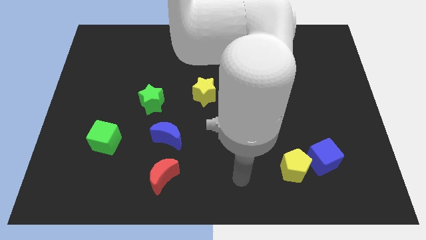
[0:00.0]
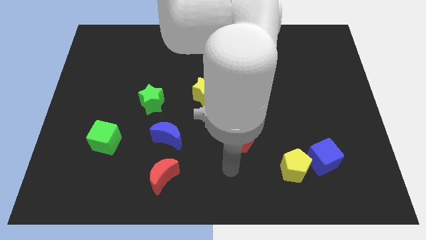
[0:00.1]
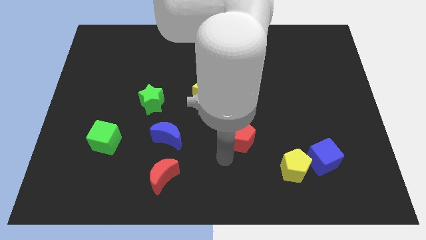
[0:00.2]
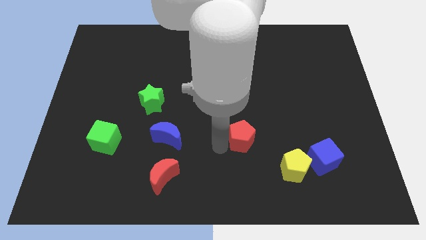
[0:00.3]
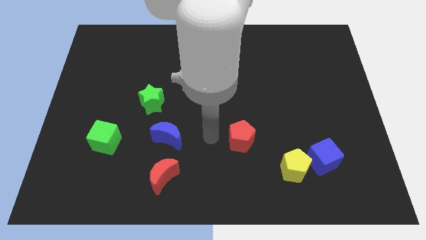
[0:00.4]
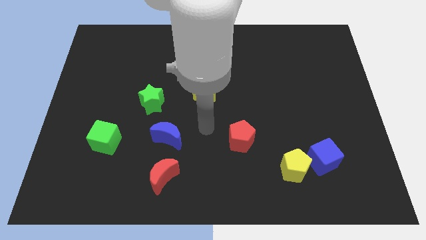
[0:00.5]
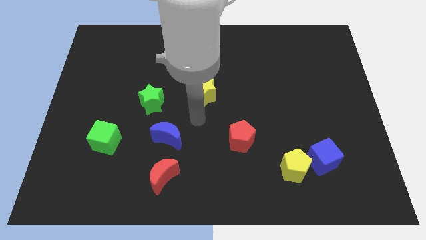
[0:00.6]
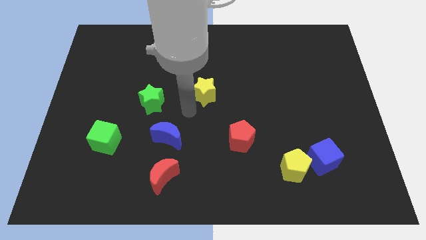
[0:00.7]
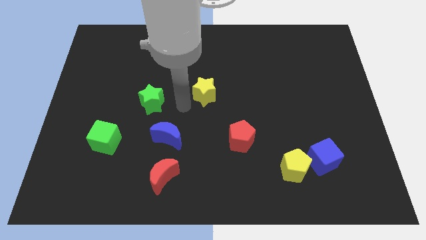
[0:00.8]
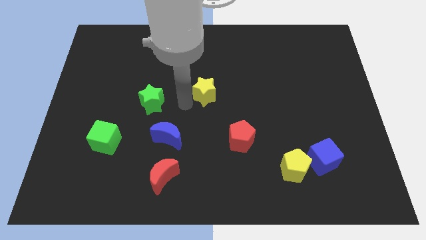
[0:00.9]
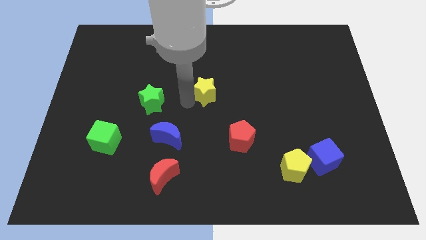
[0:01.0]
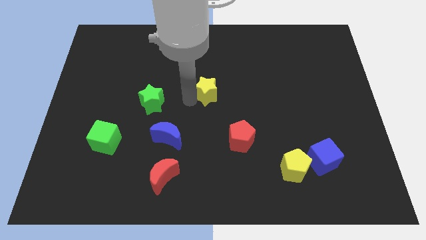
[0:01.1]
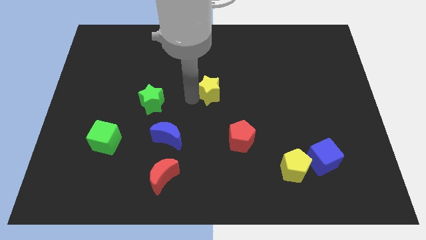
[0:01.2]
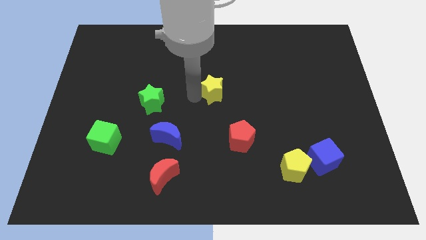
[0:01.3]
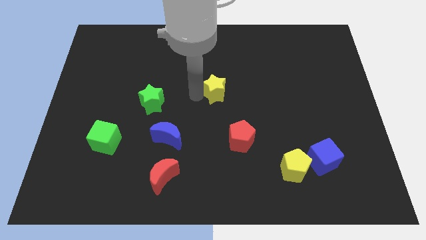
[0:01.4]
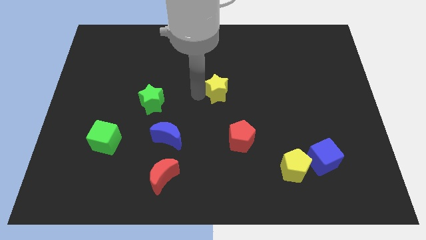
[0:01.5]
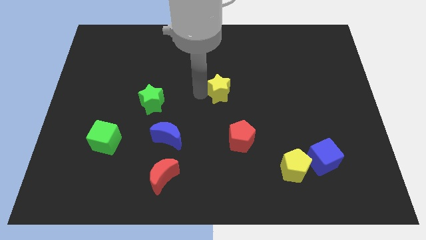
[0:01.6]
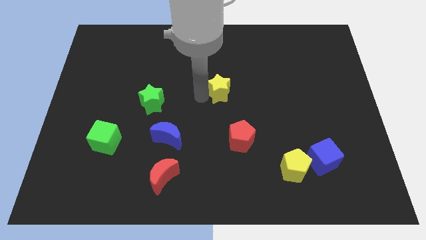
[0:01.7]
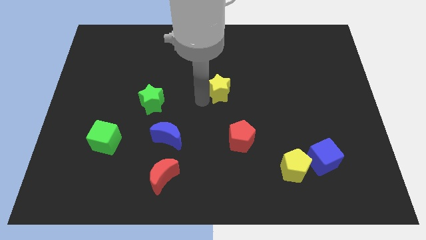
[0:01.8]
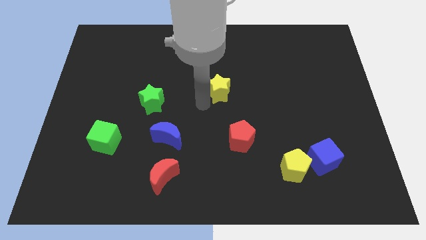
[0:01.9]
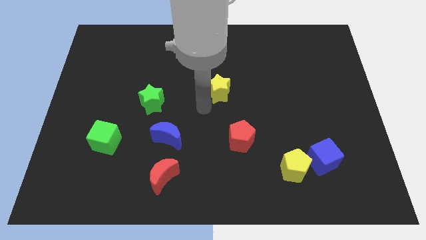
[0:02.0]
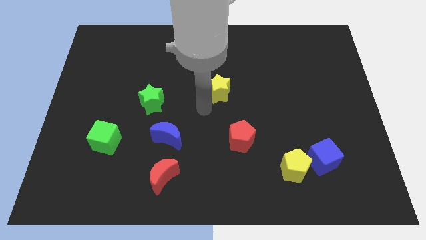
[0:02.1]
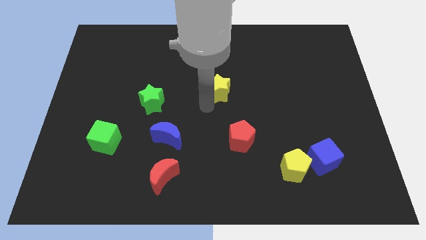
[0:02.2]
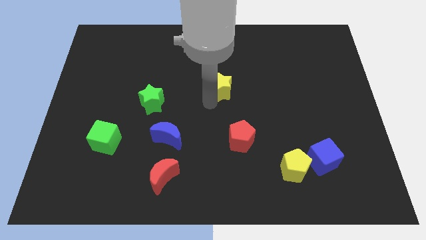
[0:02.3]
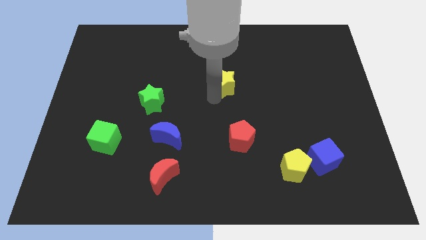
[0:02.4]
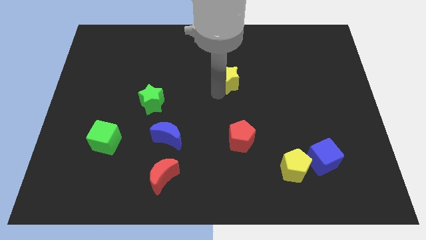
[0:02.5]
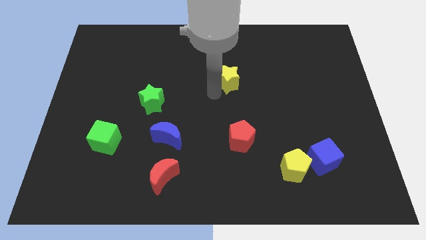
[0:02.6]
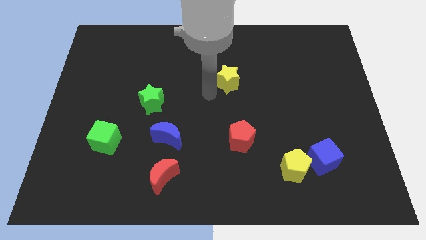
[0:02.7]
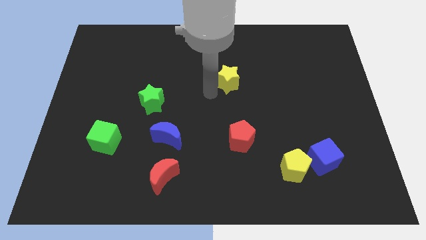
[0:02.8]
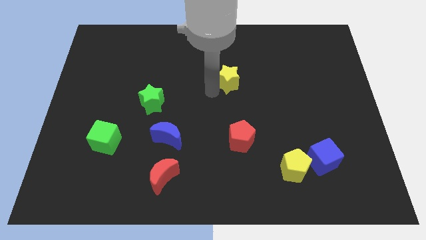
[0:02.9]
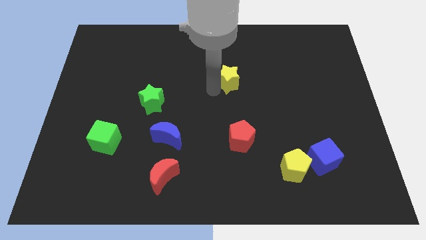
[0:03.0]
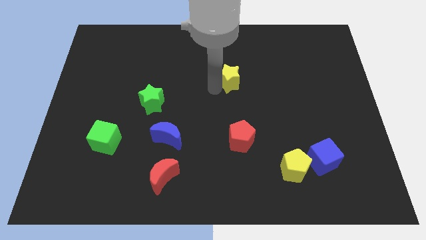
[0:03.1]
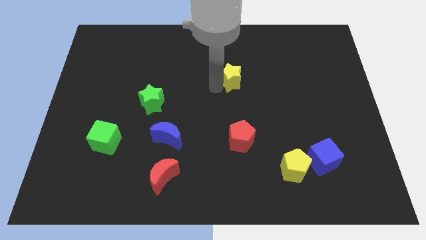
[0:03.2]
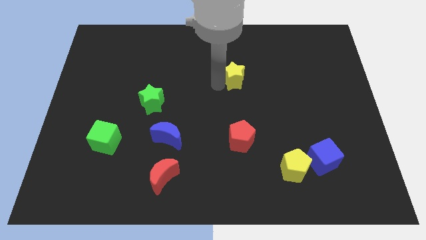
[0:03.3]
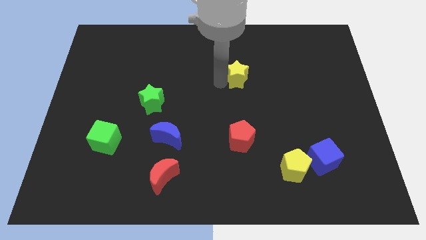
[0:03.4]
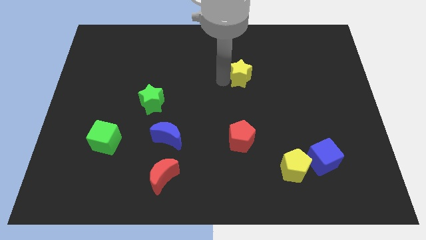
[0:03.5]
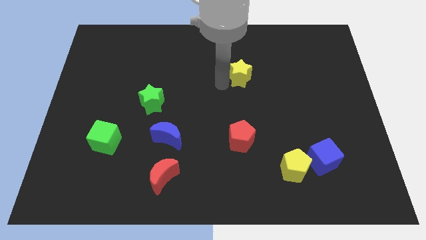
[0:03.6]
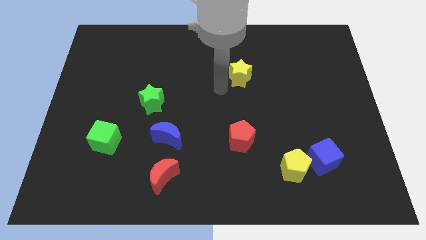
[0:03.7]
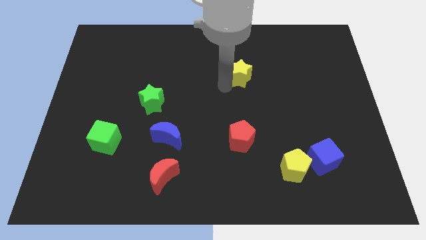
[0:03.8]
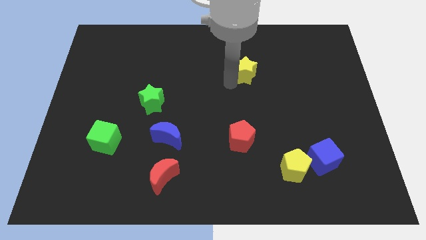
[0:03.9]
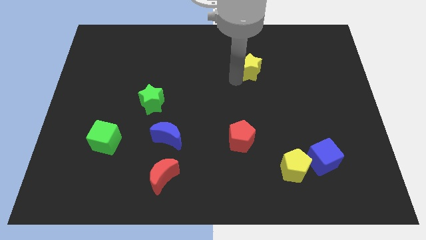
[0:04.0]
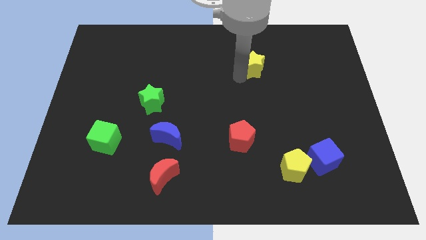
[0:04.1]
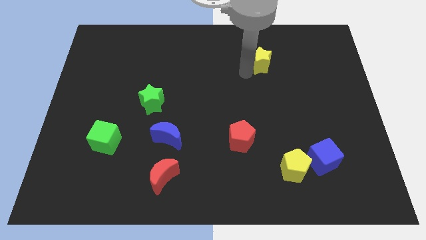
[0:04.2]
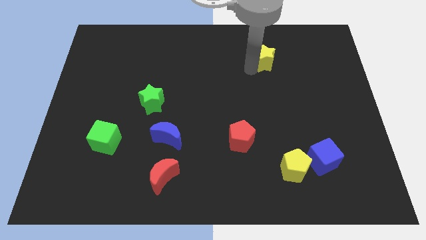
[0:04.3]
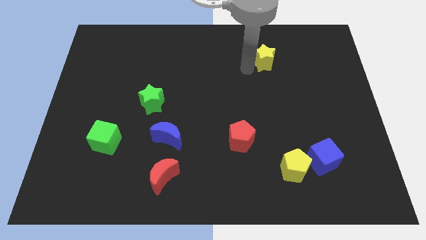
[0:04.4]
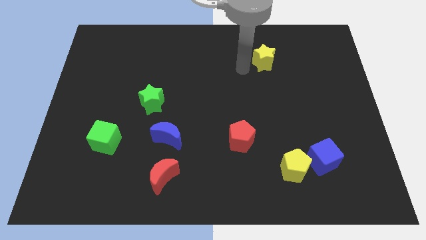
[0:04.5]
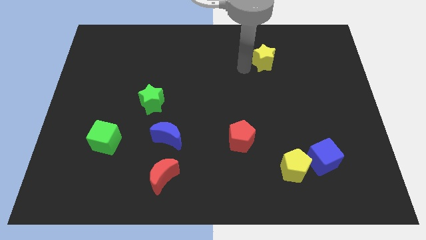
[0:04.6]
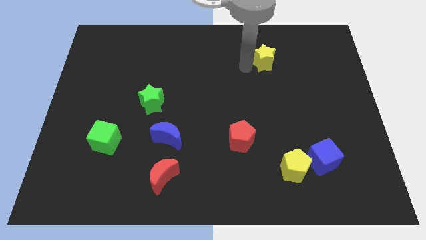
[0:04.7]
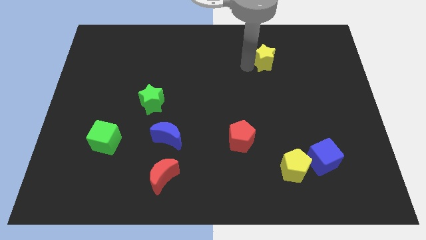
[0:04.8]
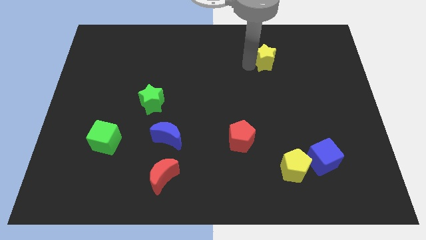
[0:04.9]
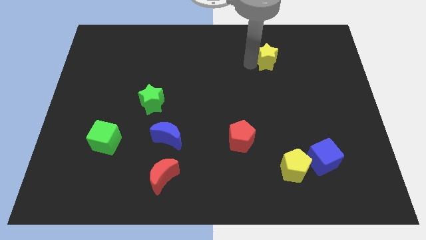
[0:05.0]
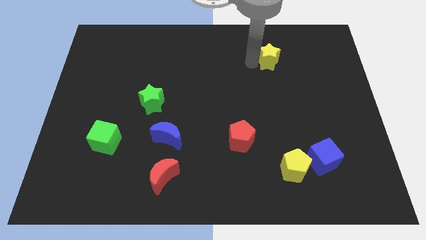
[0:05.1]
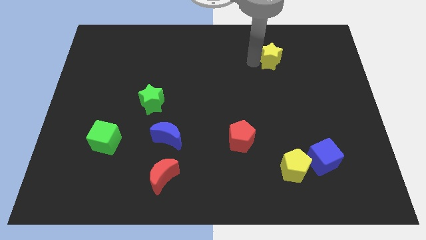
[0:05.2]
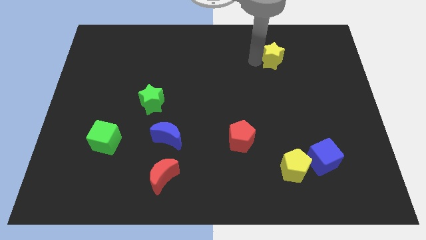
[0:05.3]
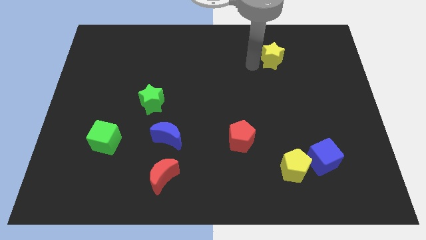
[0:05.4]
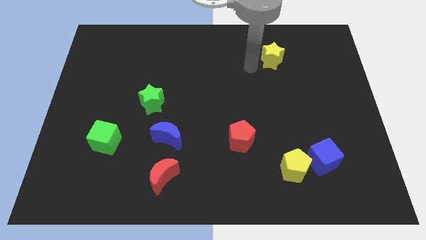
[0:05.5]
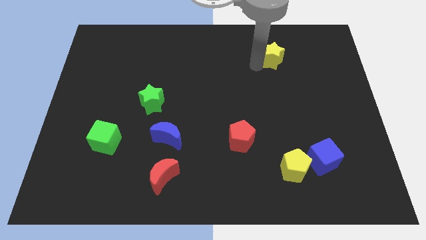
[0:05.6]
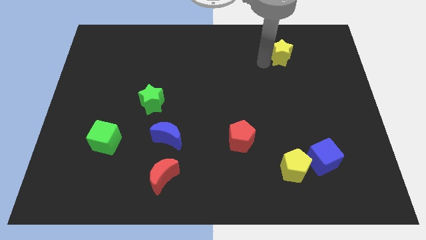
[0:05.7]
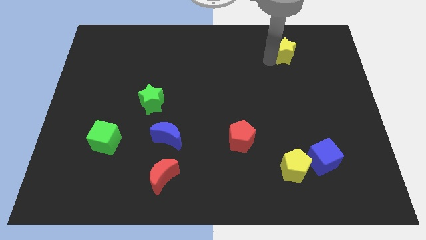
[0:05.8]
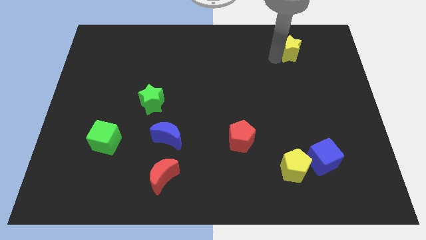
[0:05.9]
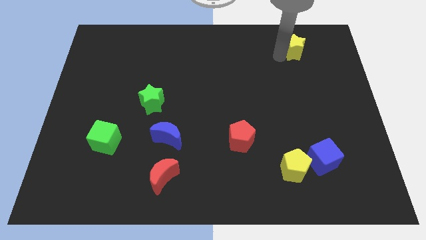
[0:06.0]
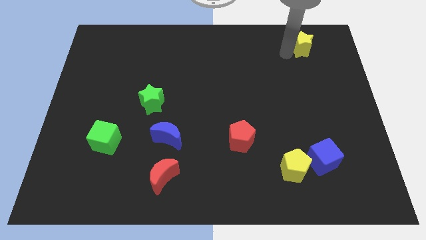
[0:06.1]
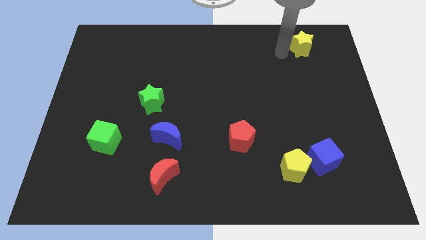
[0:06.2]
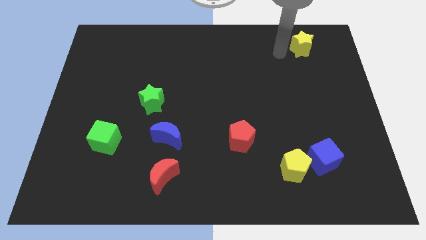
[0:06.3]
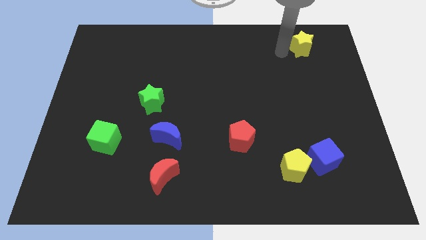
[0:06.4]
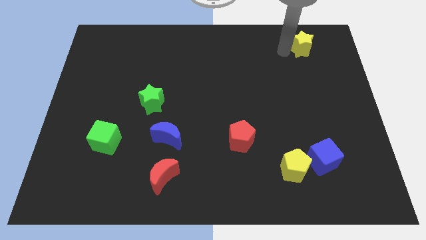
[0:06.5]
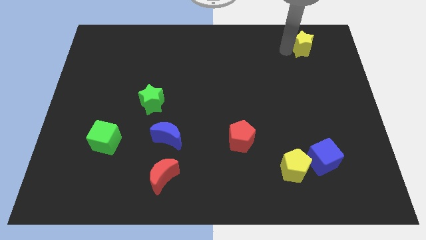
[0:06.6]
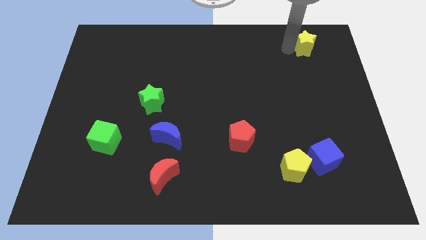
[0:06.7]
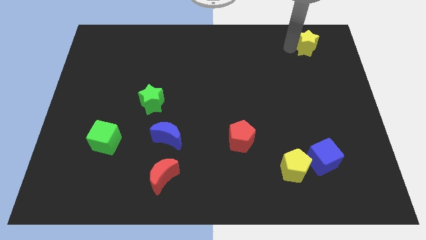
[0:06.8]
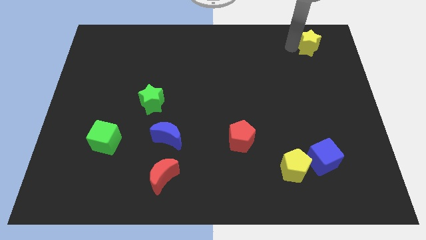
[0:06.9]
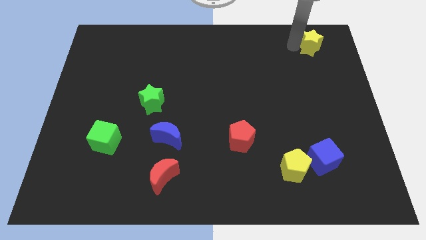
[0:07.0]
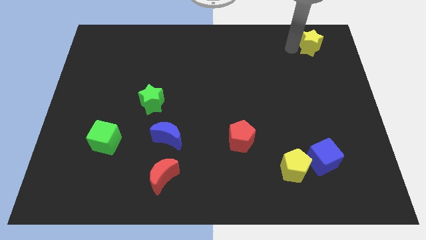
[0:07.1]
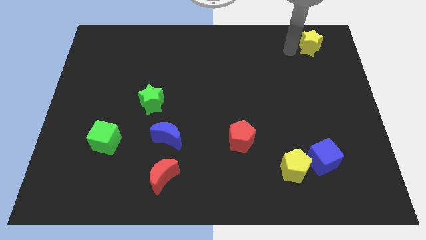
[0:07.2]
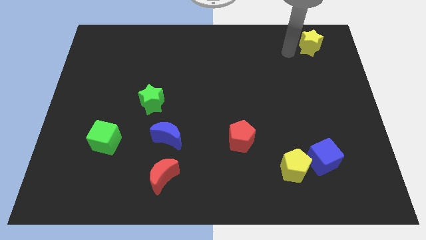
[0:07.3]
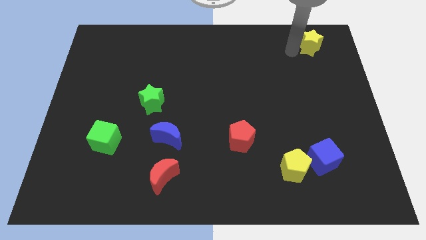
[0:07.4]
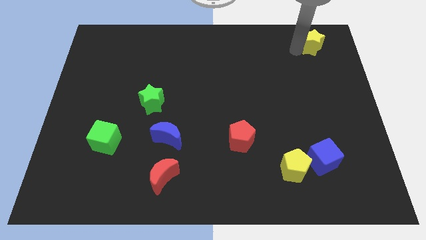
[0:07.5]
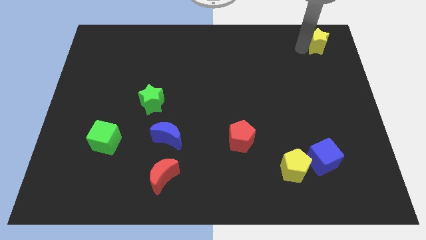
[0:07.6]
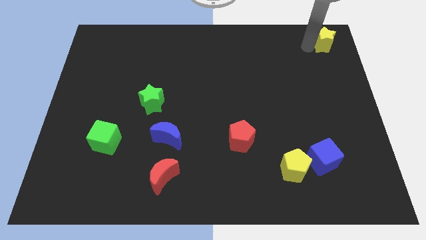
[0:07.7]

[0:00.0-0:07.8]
move the yellow star to the top right of the board

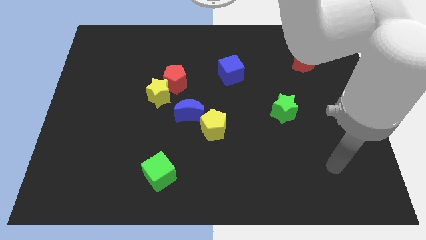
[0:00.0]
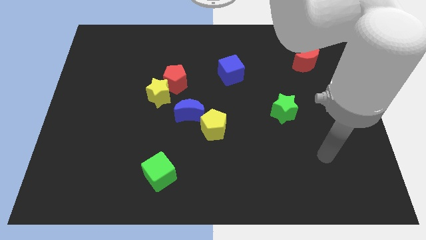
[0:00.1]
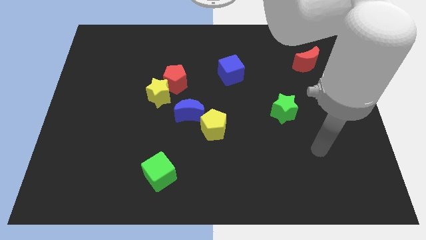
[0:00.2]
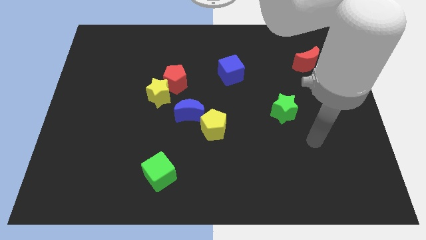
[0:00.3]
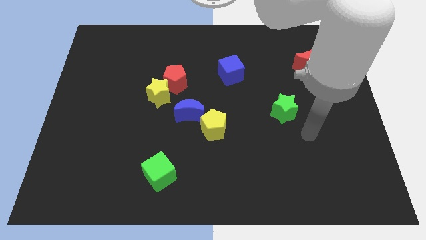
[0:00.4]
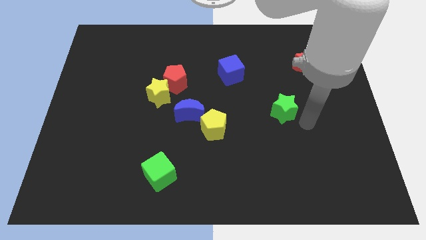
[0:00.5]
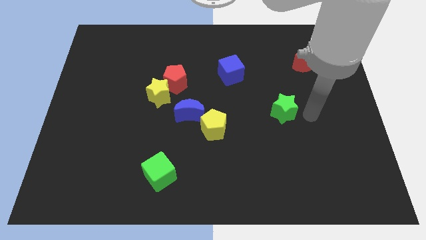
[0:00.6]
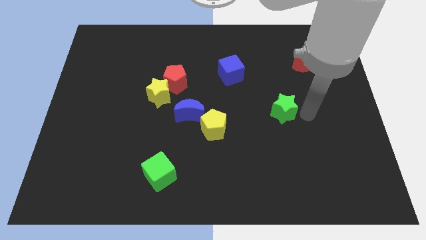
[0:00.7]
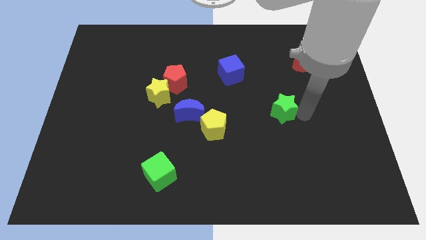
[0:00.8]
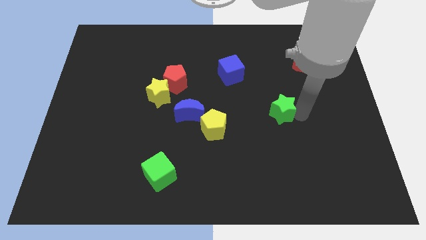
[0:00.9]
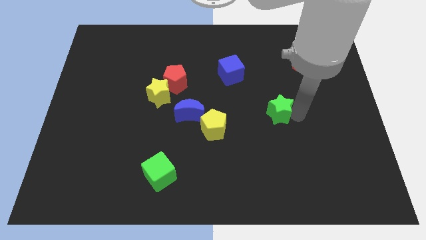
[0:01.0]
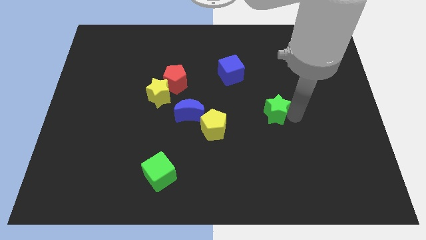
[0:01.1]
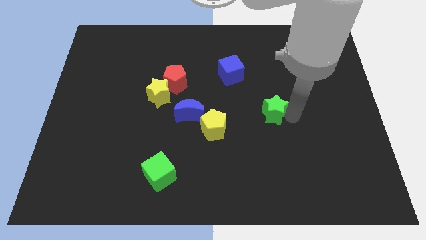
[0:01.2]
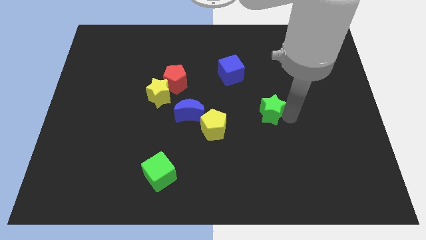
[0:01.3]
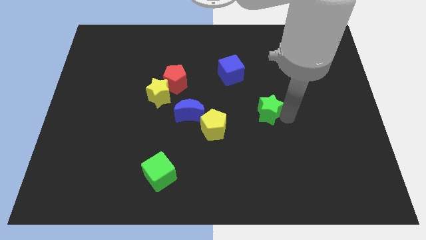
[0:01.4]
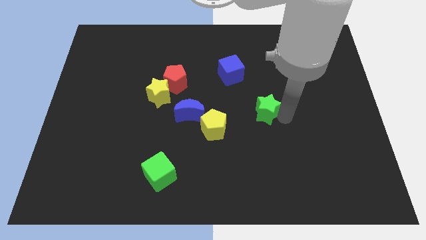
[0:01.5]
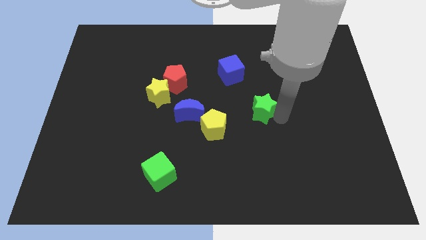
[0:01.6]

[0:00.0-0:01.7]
slide the green star to the center
